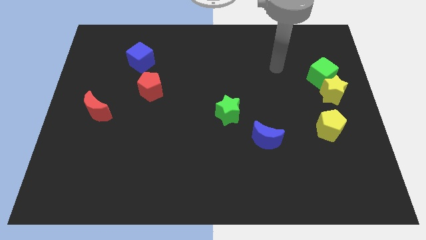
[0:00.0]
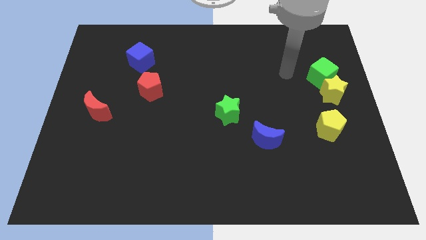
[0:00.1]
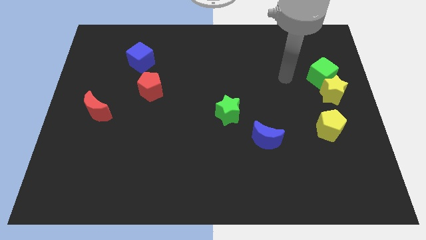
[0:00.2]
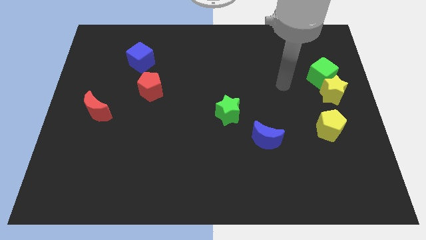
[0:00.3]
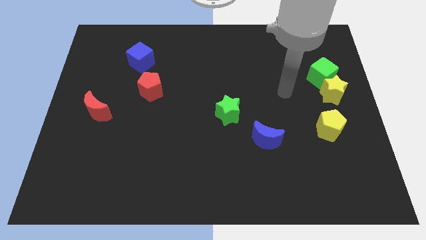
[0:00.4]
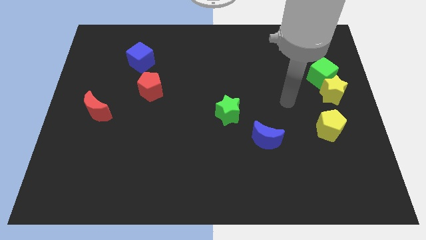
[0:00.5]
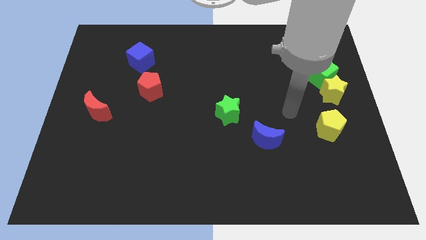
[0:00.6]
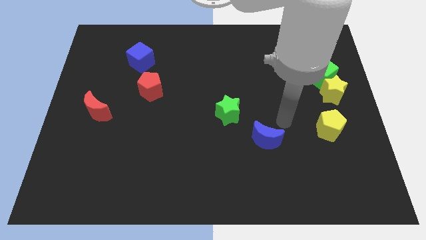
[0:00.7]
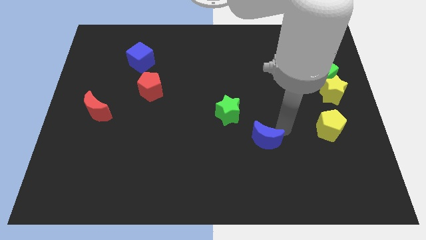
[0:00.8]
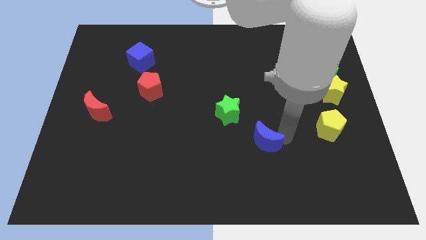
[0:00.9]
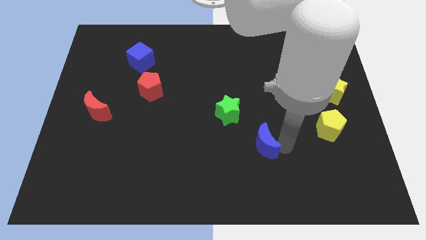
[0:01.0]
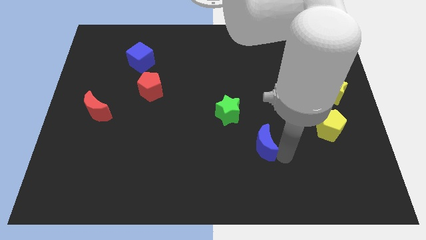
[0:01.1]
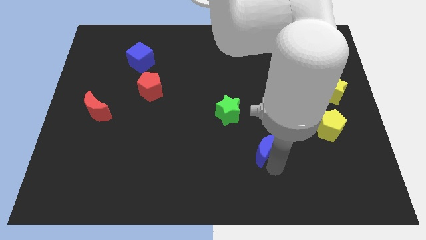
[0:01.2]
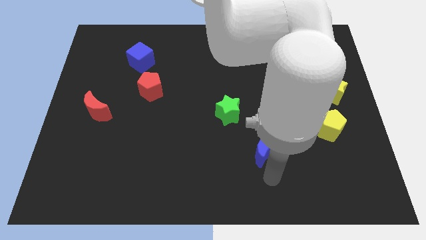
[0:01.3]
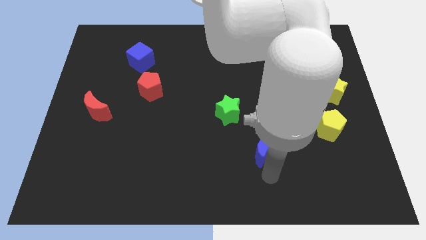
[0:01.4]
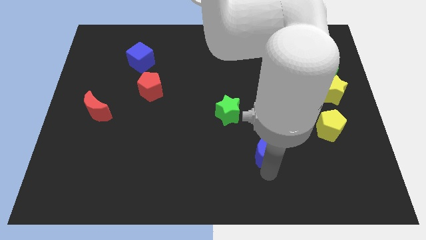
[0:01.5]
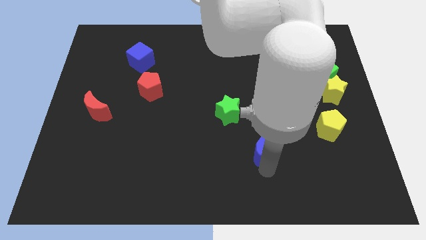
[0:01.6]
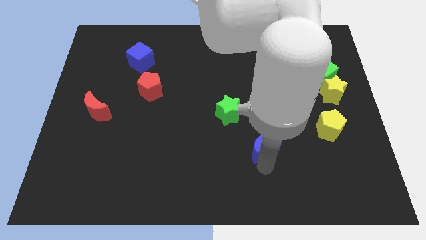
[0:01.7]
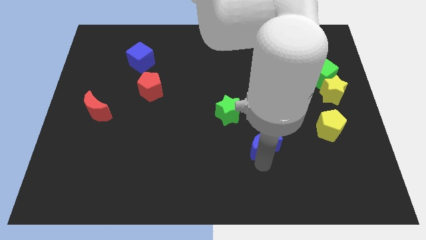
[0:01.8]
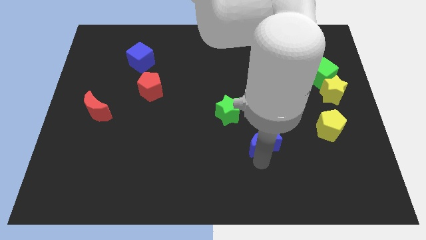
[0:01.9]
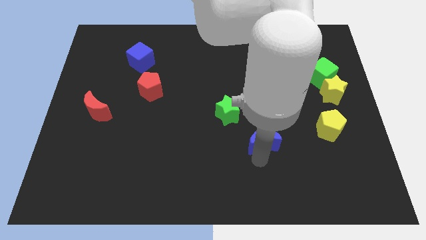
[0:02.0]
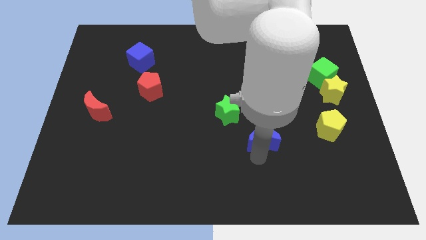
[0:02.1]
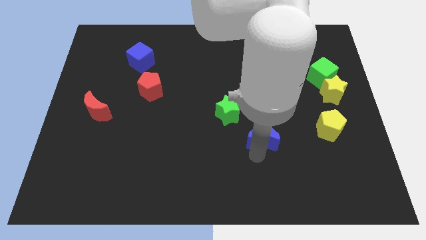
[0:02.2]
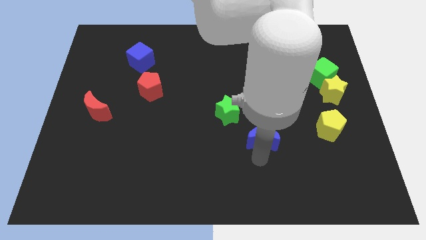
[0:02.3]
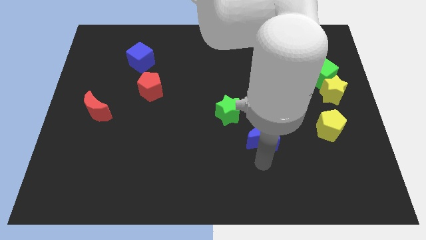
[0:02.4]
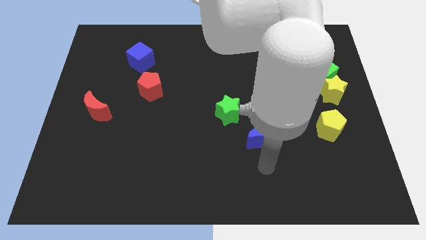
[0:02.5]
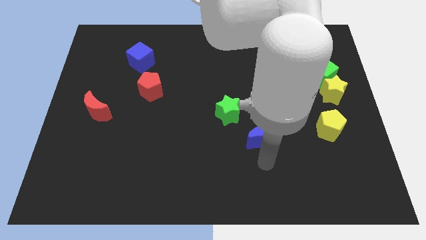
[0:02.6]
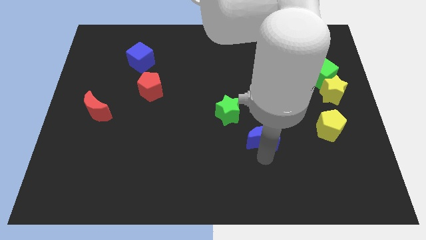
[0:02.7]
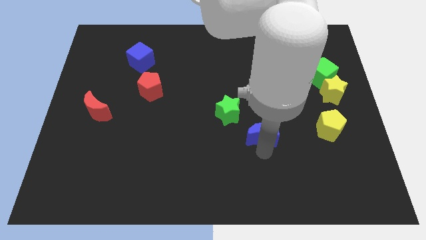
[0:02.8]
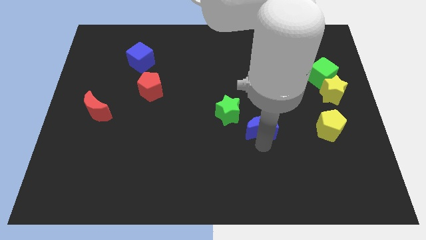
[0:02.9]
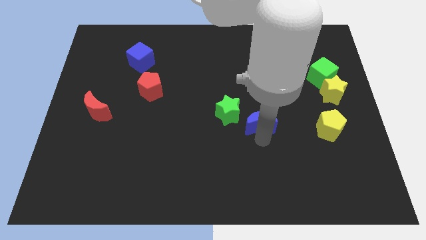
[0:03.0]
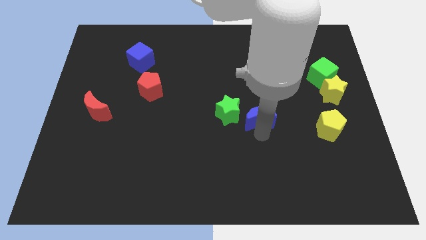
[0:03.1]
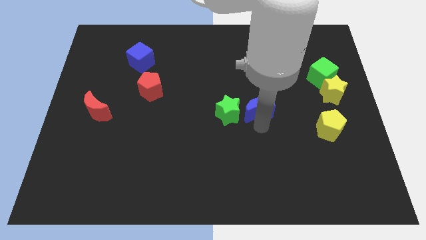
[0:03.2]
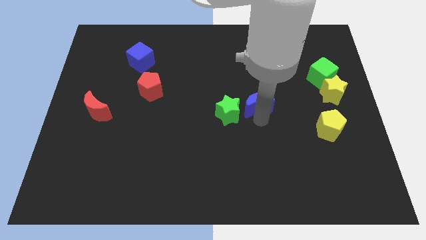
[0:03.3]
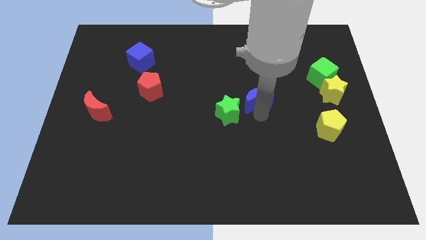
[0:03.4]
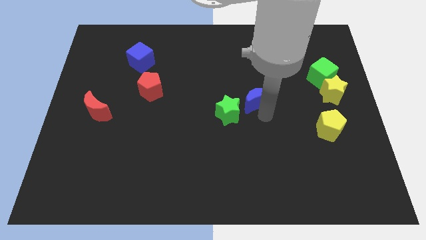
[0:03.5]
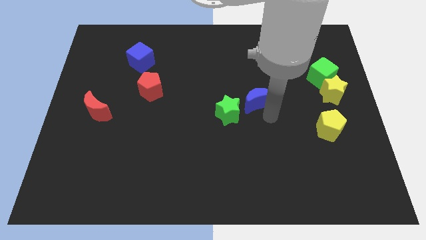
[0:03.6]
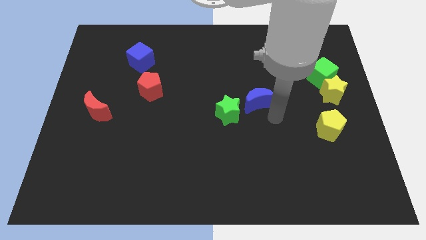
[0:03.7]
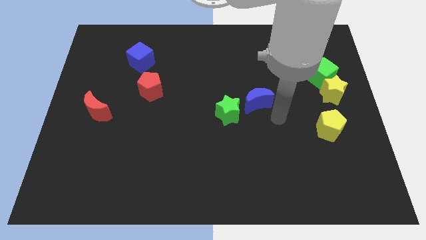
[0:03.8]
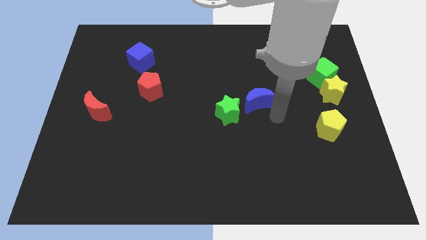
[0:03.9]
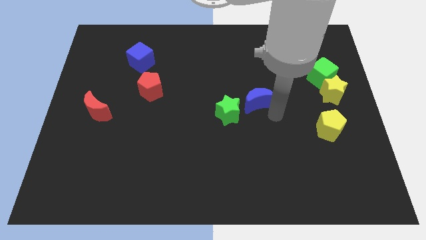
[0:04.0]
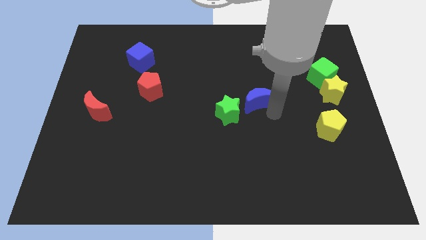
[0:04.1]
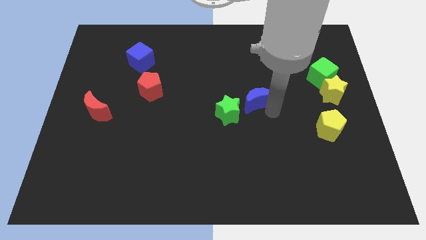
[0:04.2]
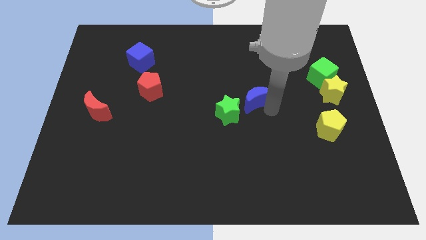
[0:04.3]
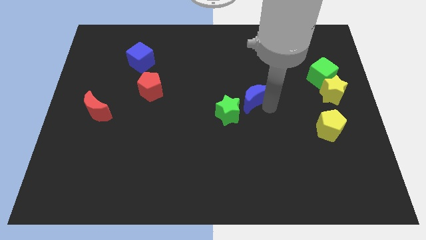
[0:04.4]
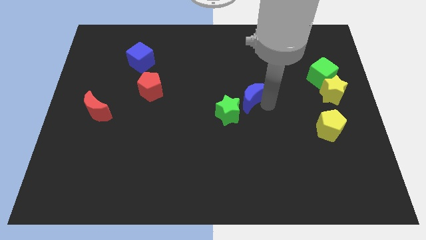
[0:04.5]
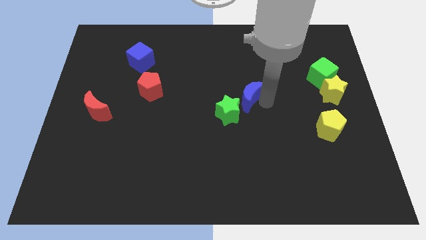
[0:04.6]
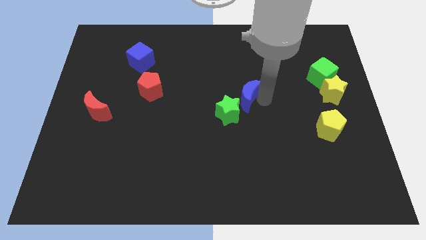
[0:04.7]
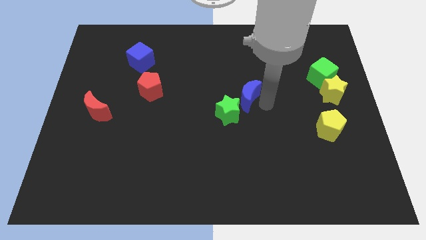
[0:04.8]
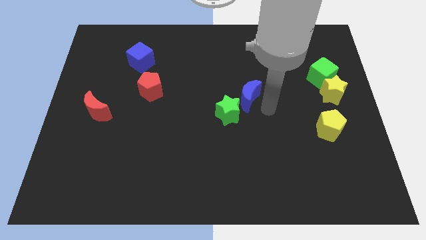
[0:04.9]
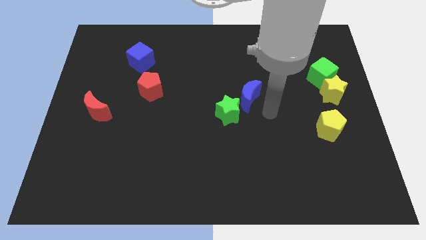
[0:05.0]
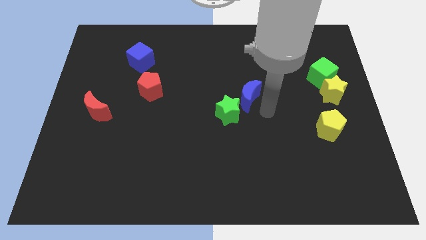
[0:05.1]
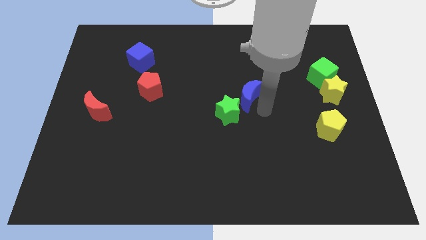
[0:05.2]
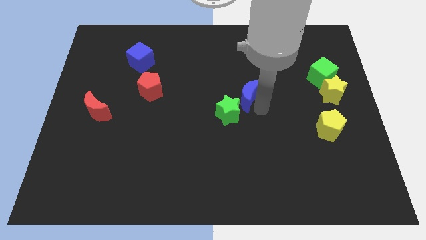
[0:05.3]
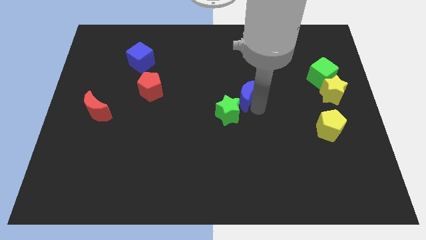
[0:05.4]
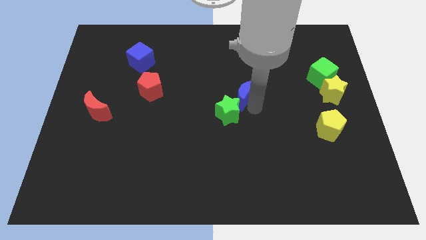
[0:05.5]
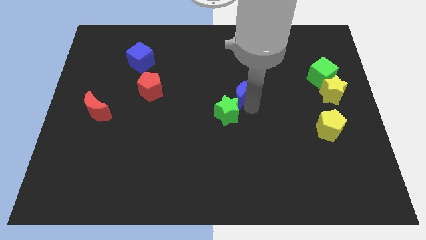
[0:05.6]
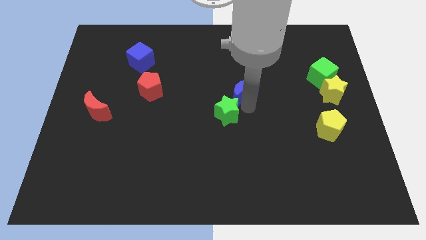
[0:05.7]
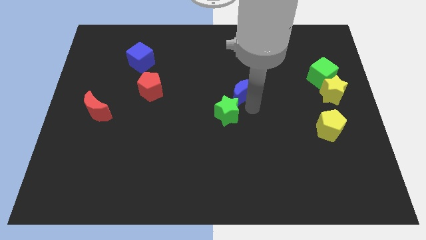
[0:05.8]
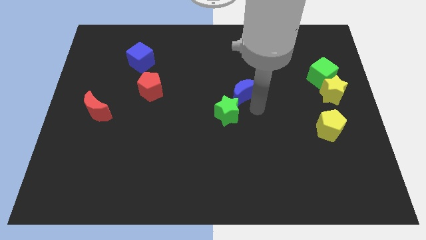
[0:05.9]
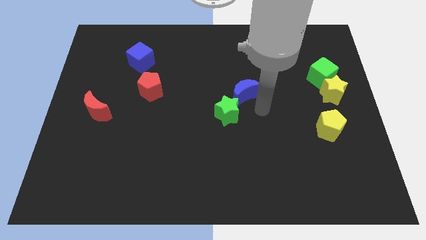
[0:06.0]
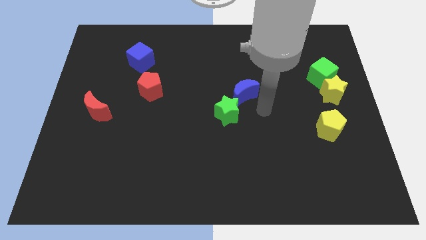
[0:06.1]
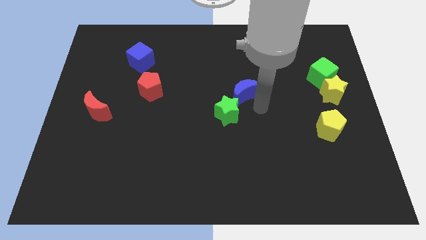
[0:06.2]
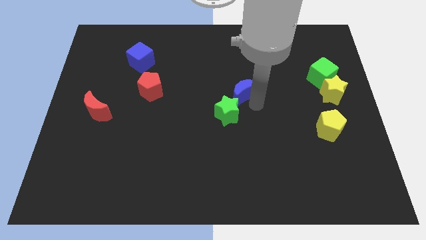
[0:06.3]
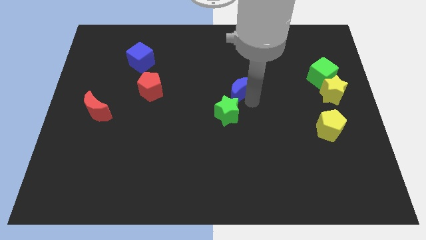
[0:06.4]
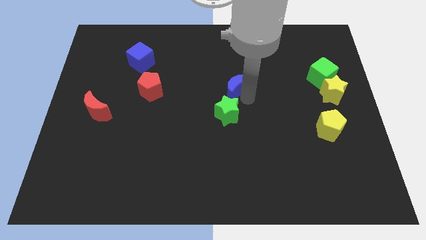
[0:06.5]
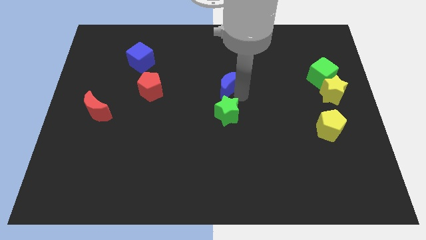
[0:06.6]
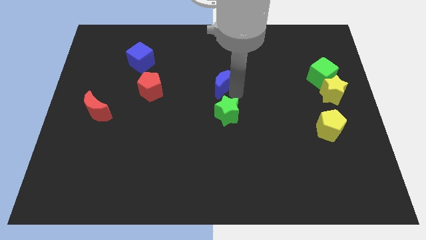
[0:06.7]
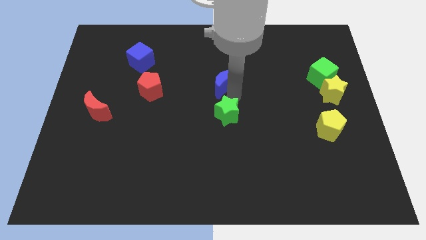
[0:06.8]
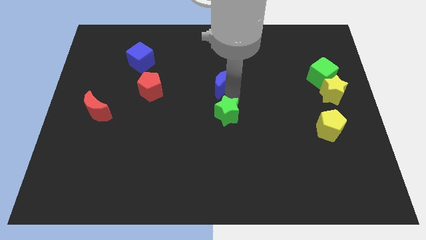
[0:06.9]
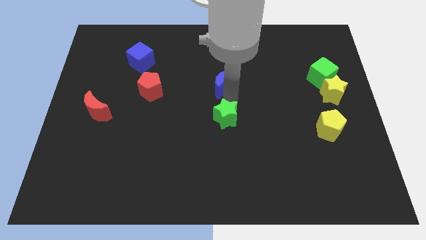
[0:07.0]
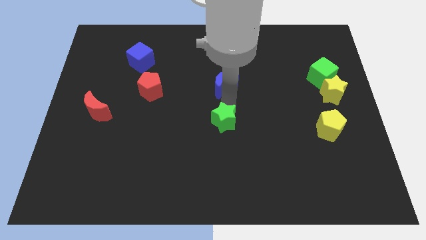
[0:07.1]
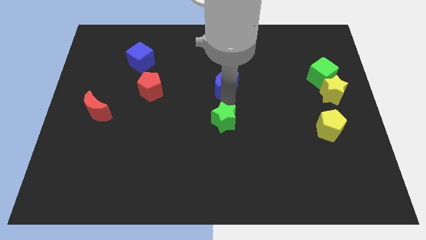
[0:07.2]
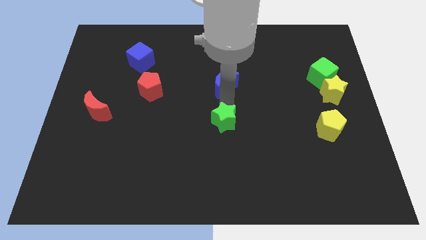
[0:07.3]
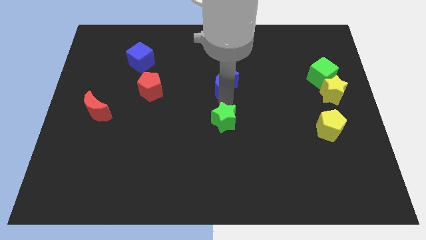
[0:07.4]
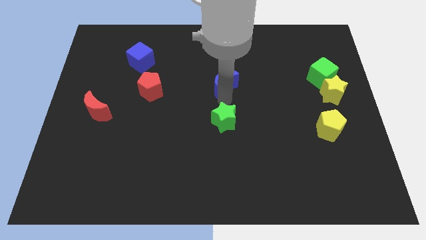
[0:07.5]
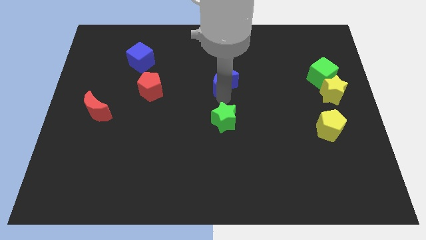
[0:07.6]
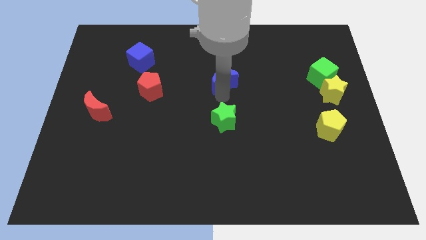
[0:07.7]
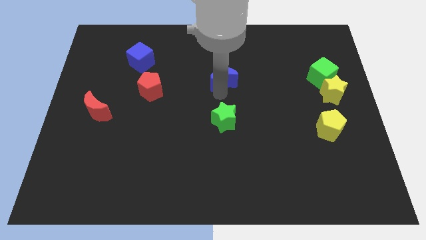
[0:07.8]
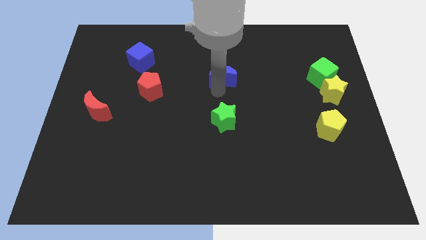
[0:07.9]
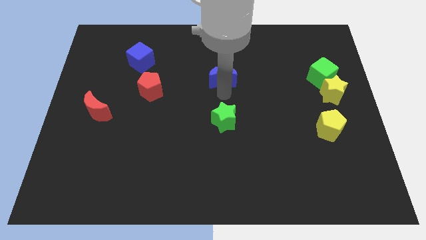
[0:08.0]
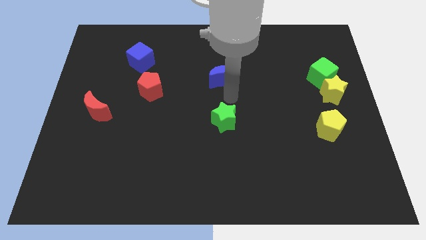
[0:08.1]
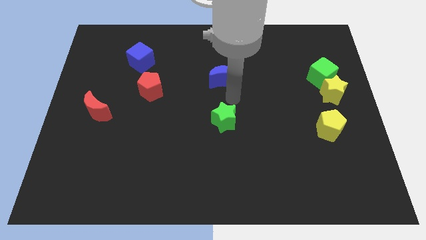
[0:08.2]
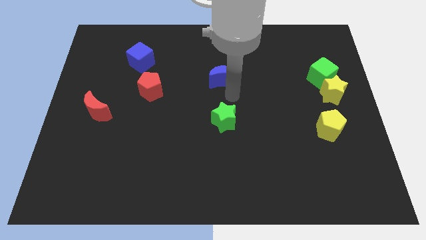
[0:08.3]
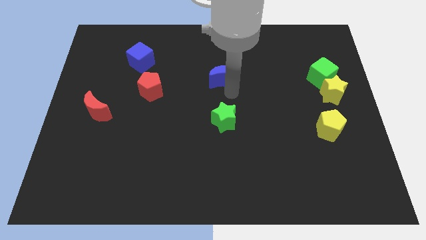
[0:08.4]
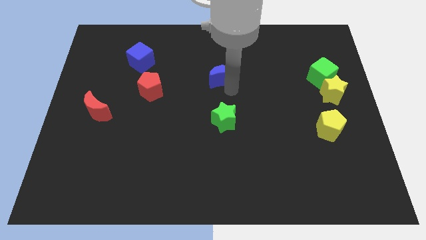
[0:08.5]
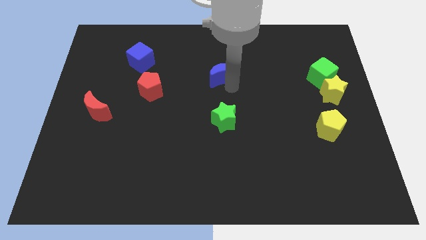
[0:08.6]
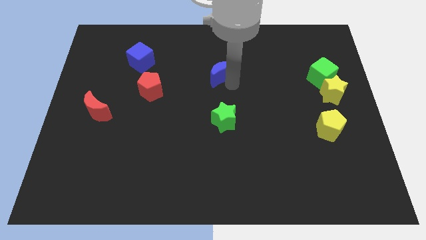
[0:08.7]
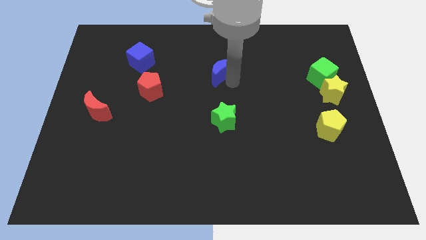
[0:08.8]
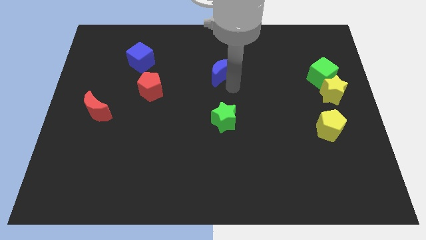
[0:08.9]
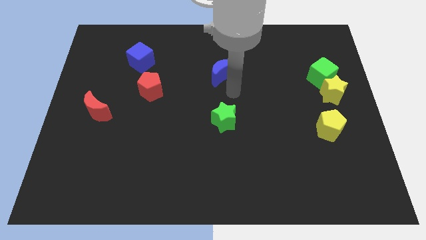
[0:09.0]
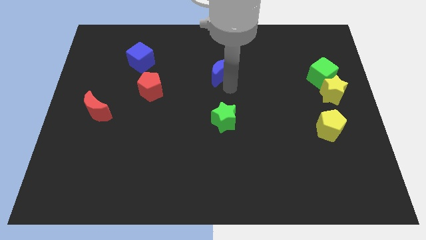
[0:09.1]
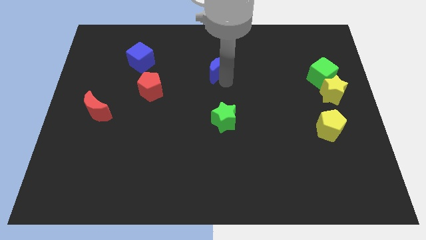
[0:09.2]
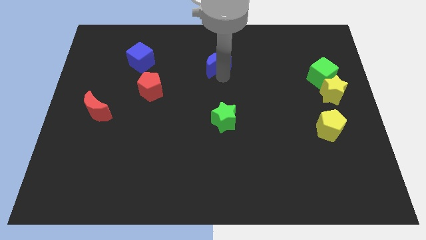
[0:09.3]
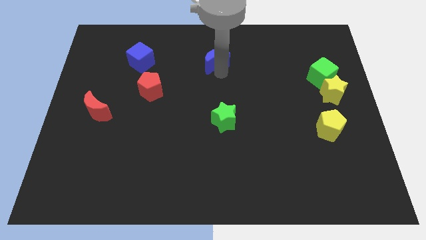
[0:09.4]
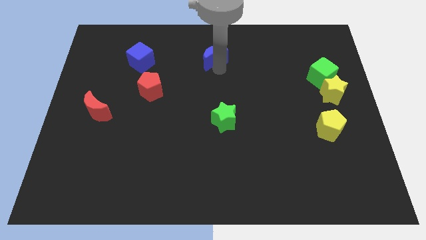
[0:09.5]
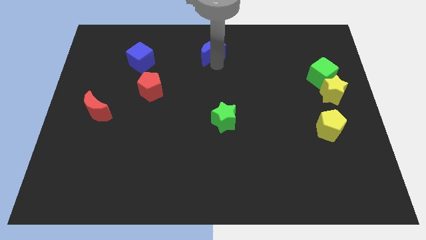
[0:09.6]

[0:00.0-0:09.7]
move the blue moon to the top side
